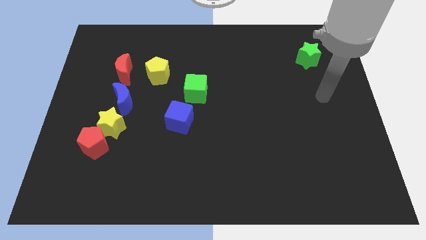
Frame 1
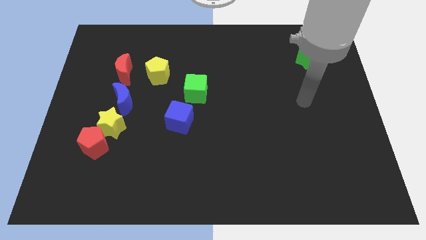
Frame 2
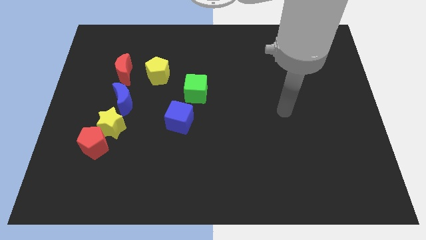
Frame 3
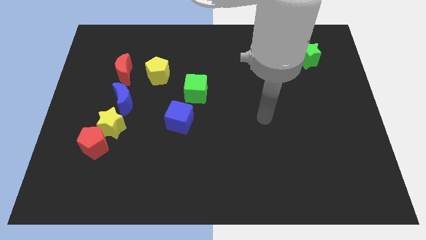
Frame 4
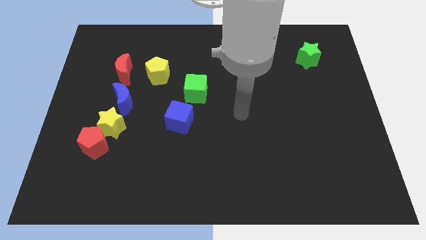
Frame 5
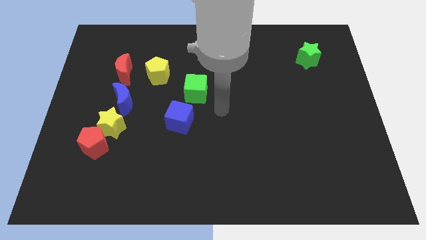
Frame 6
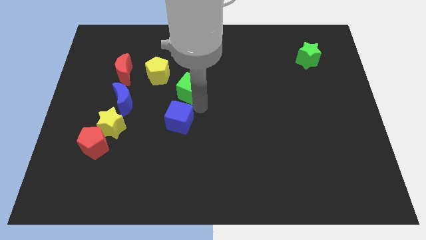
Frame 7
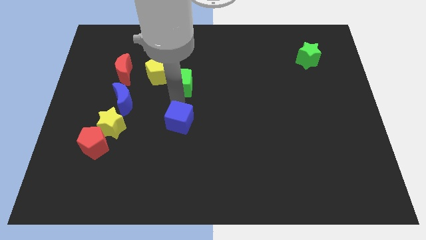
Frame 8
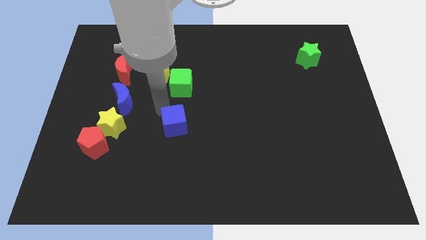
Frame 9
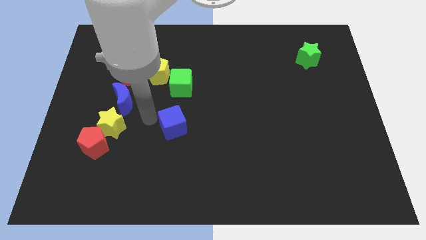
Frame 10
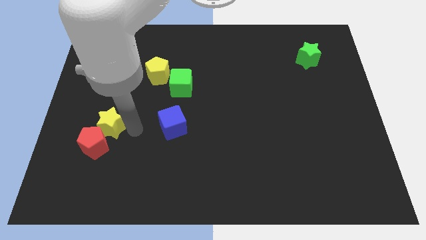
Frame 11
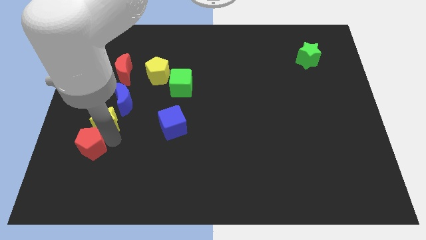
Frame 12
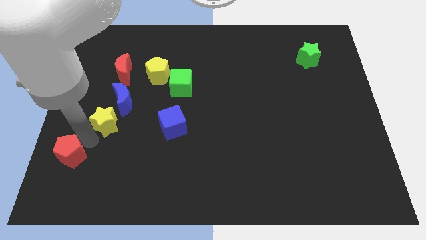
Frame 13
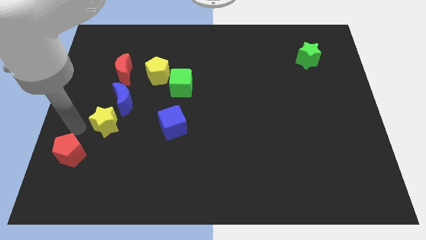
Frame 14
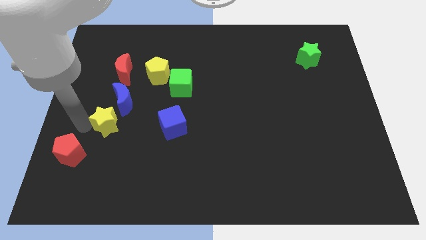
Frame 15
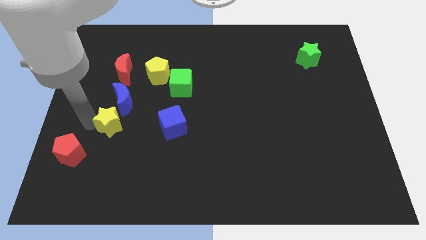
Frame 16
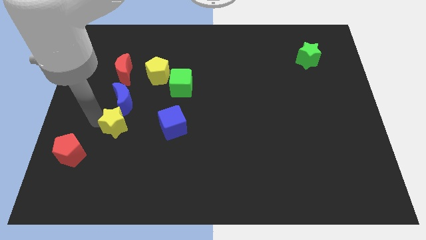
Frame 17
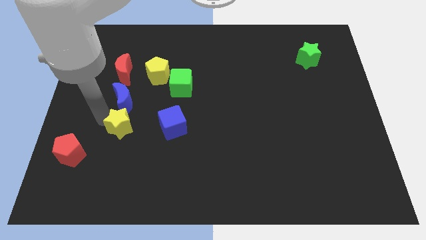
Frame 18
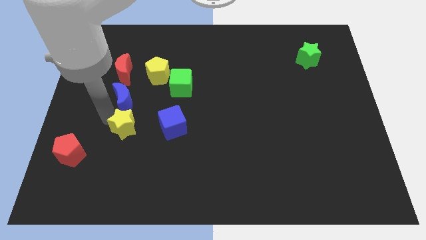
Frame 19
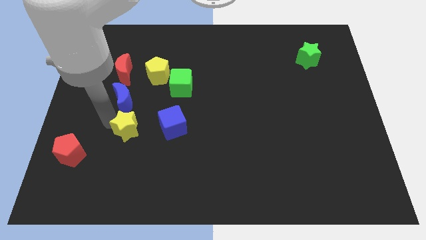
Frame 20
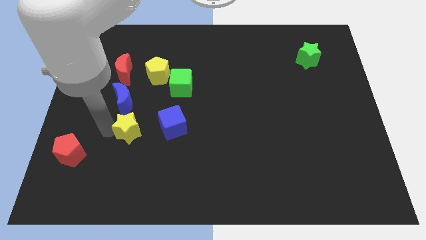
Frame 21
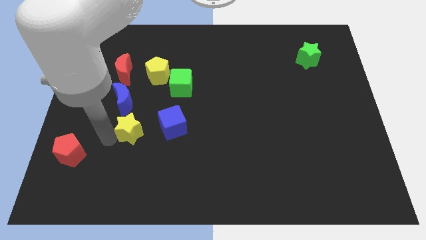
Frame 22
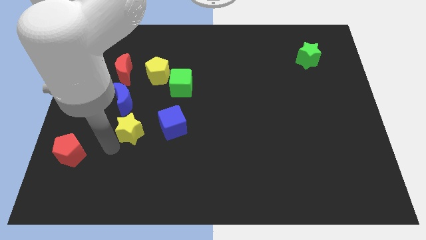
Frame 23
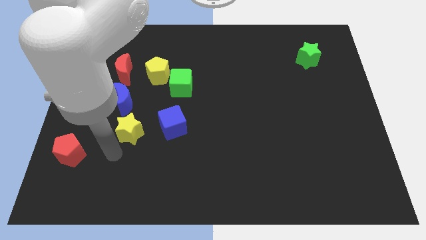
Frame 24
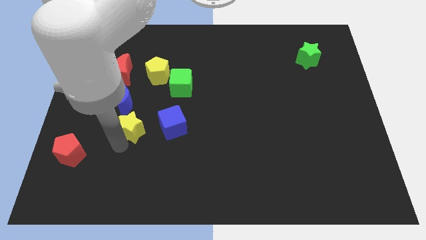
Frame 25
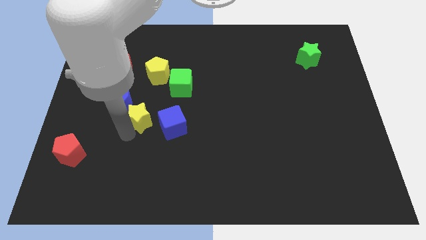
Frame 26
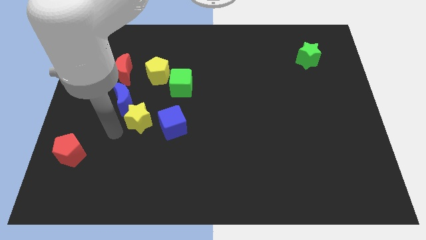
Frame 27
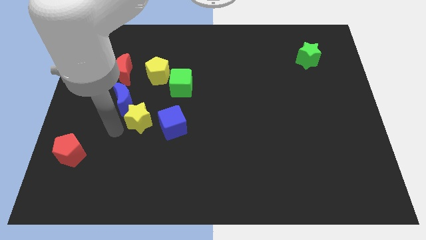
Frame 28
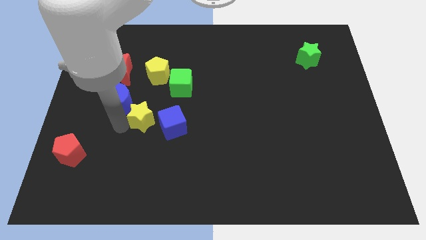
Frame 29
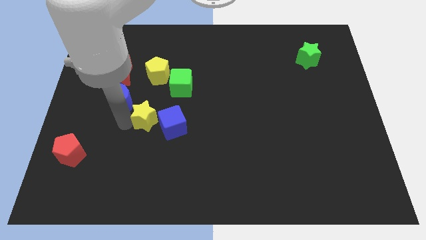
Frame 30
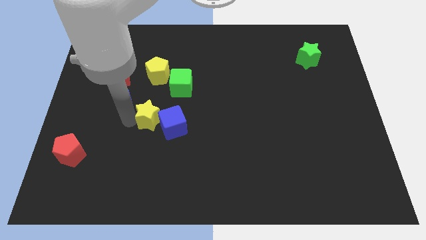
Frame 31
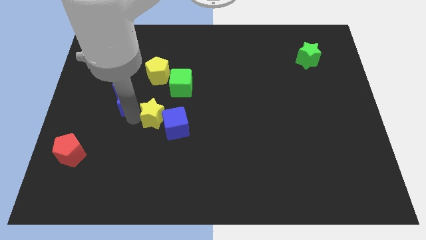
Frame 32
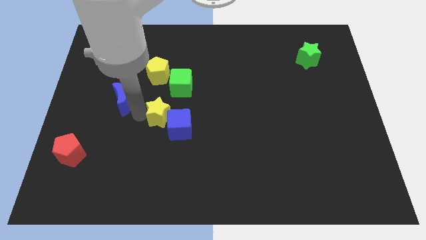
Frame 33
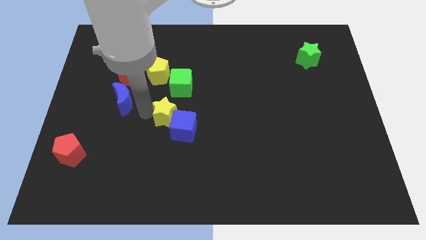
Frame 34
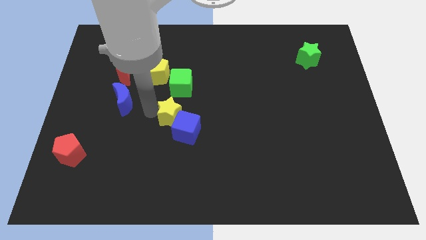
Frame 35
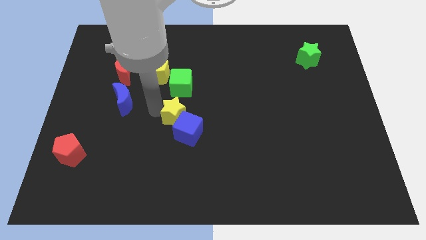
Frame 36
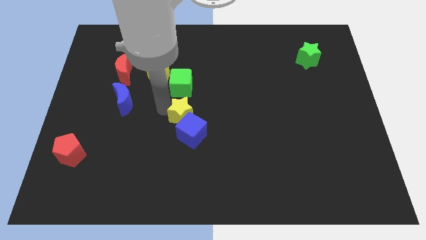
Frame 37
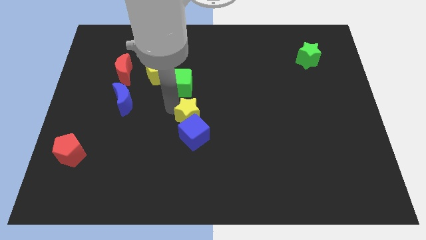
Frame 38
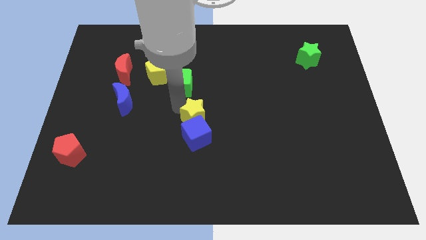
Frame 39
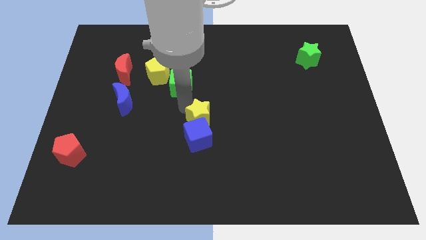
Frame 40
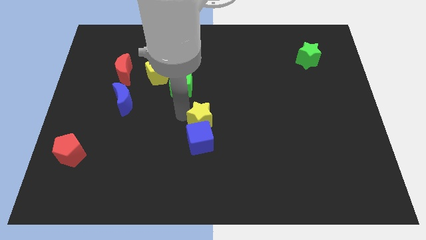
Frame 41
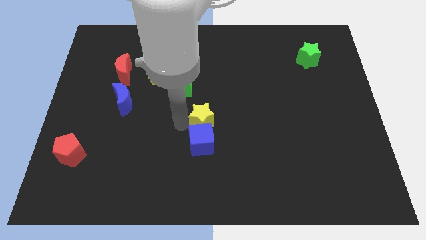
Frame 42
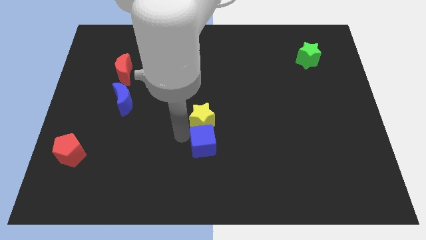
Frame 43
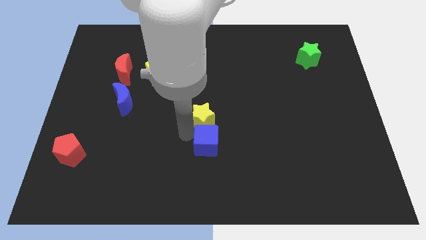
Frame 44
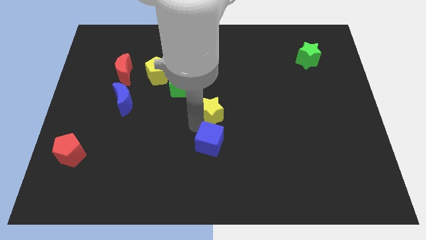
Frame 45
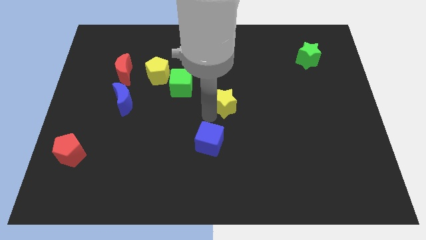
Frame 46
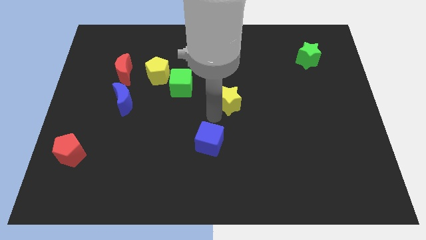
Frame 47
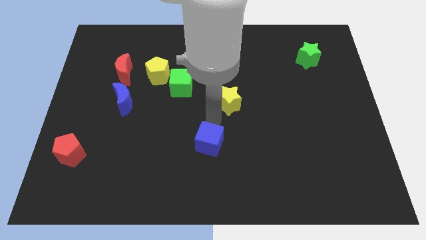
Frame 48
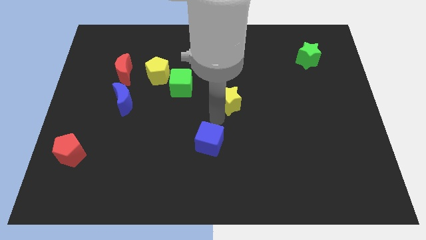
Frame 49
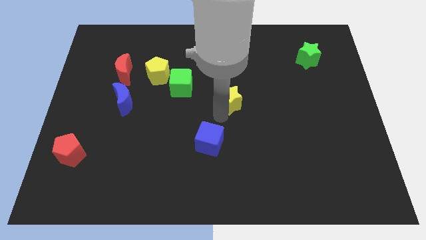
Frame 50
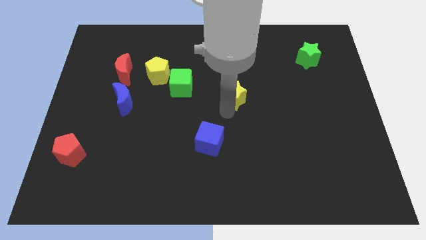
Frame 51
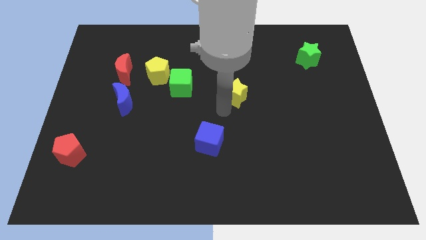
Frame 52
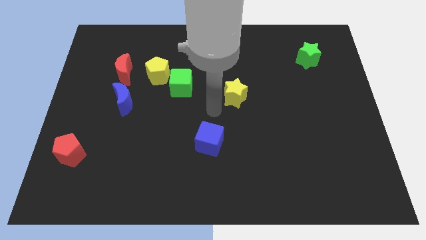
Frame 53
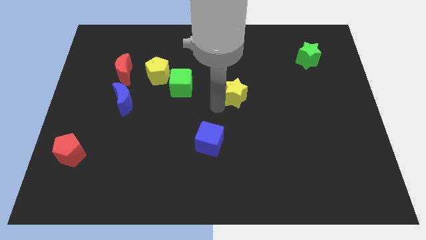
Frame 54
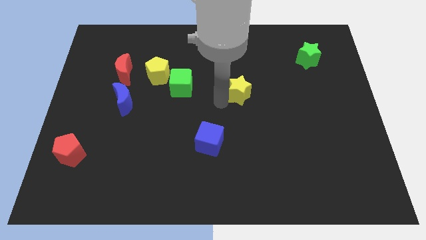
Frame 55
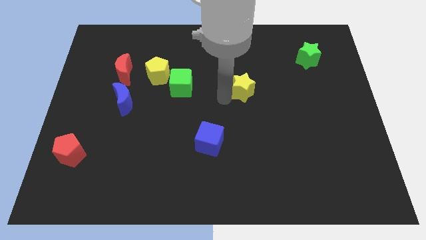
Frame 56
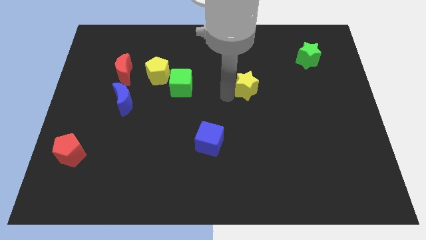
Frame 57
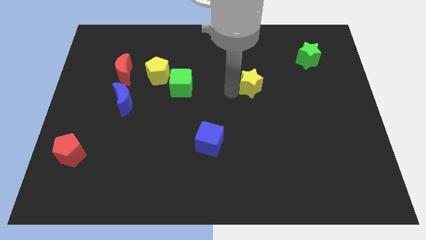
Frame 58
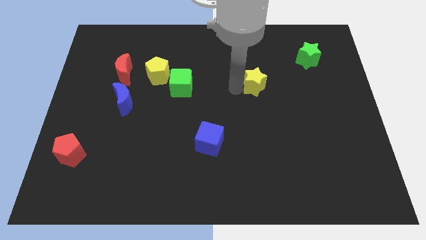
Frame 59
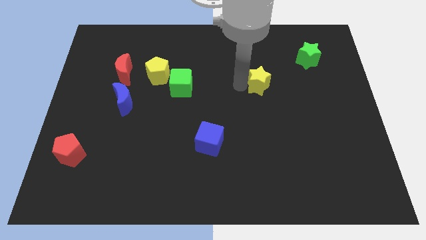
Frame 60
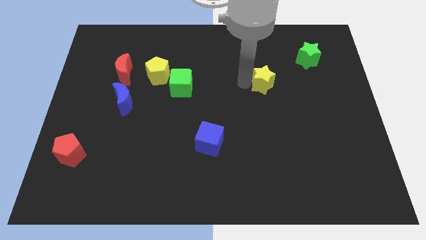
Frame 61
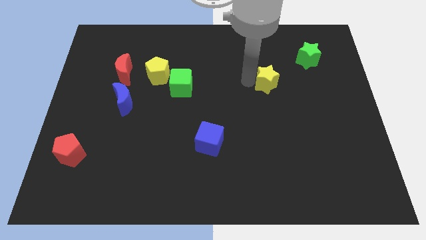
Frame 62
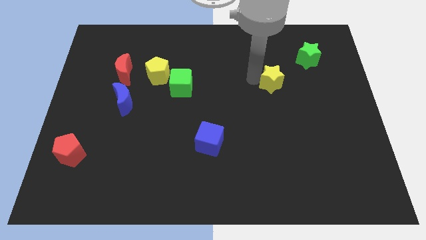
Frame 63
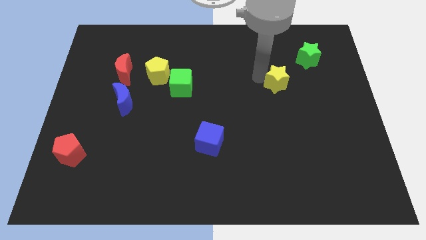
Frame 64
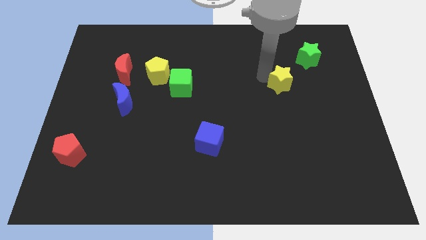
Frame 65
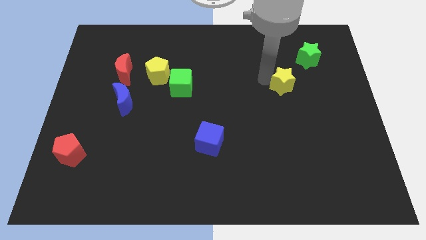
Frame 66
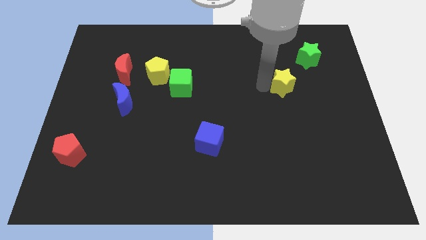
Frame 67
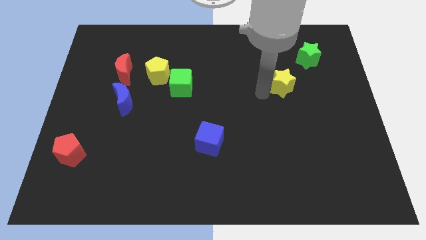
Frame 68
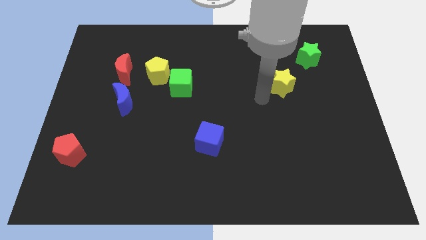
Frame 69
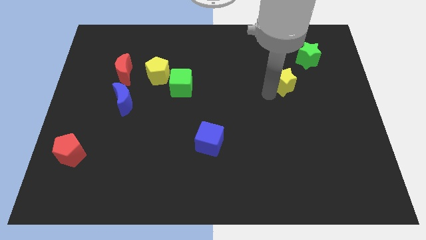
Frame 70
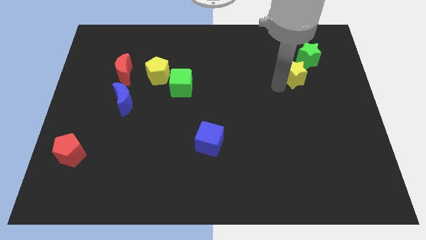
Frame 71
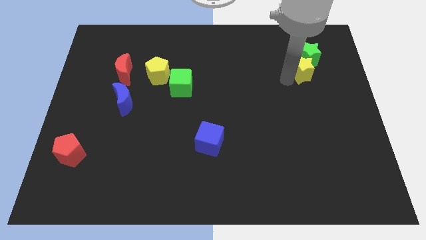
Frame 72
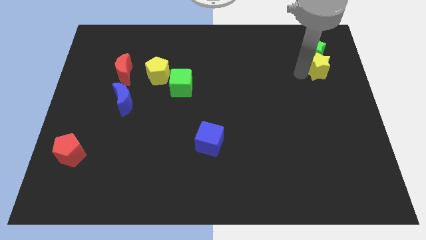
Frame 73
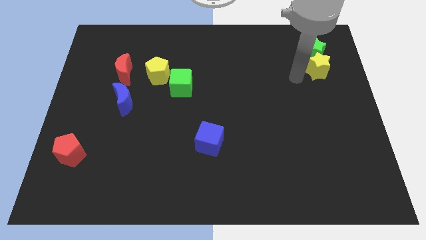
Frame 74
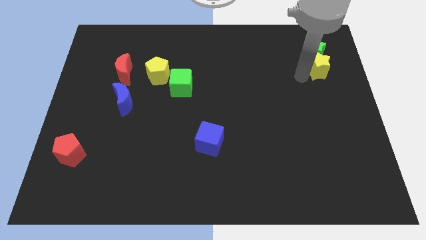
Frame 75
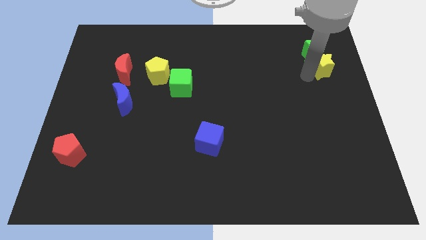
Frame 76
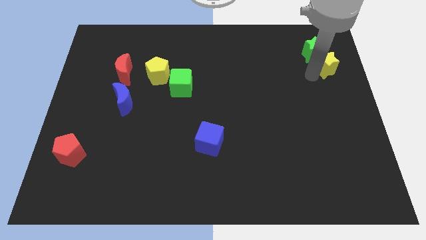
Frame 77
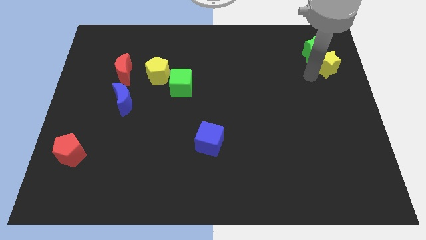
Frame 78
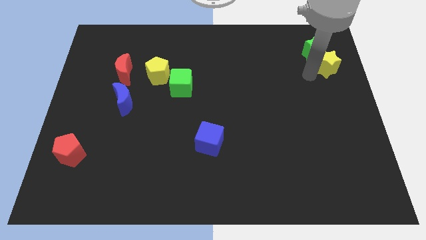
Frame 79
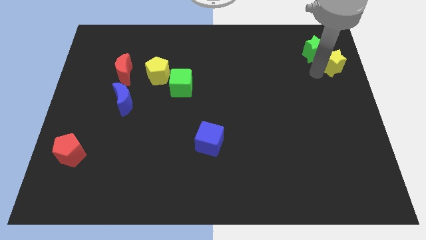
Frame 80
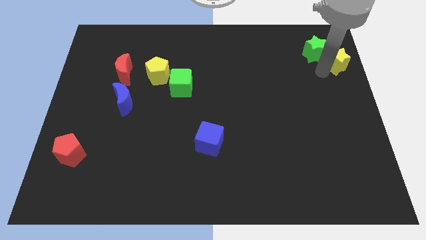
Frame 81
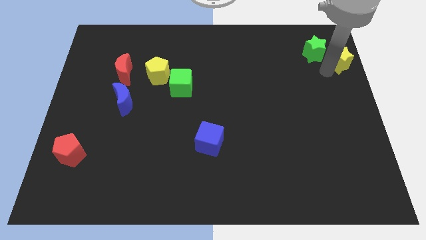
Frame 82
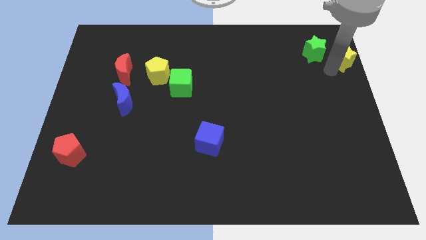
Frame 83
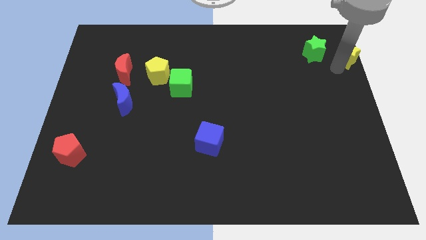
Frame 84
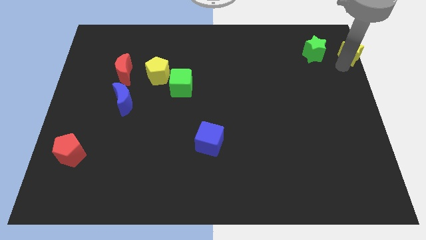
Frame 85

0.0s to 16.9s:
put the yellow star to the upper right corner
